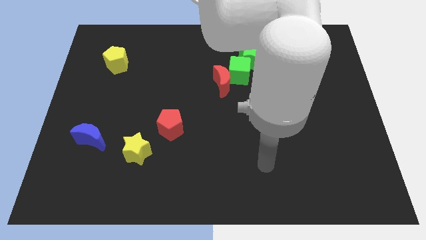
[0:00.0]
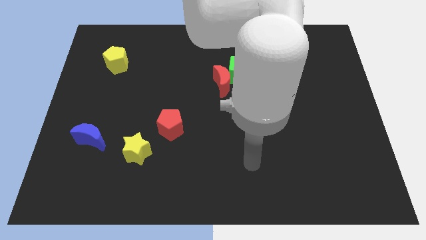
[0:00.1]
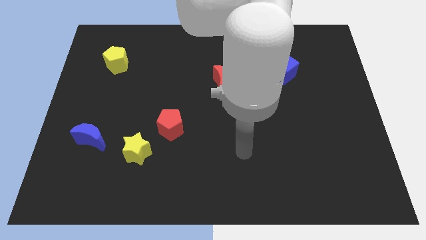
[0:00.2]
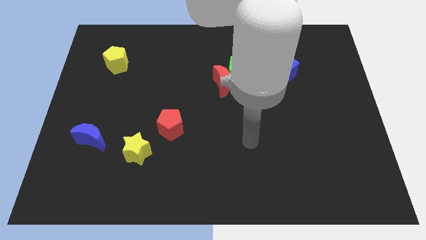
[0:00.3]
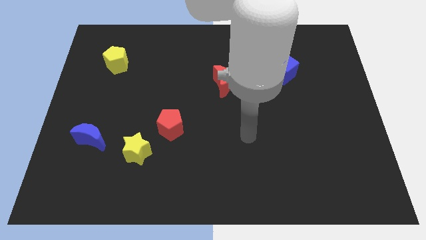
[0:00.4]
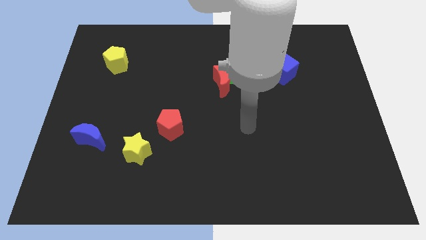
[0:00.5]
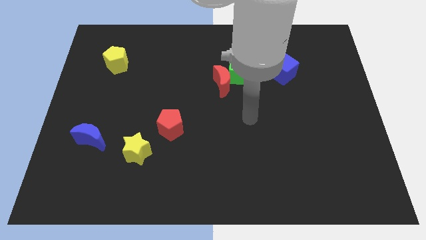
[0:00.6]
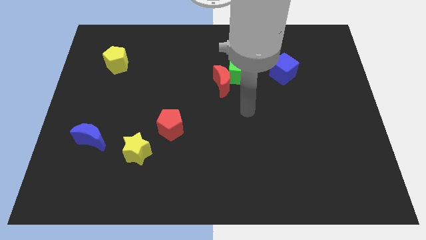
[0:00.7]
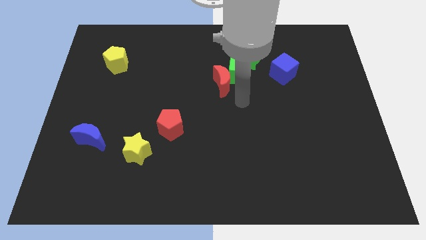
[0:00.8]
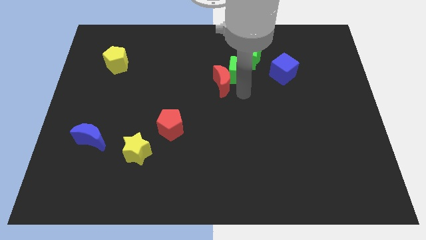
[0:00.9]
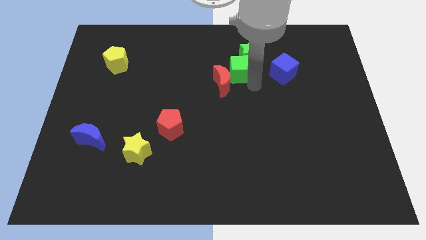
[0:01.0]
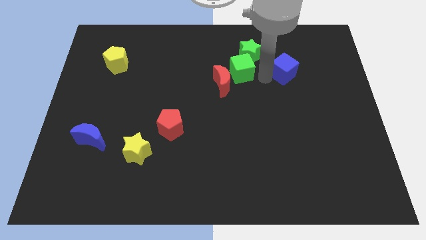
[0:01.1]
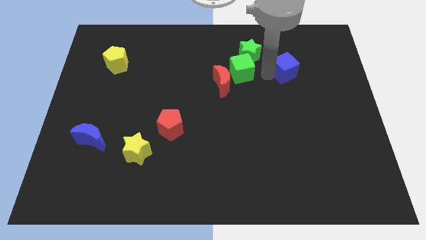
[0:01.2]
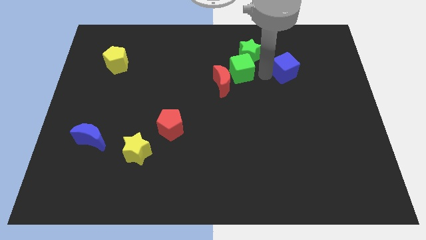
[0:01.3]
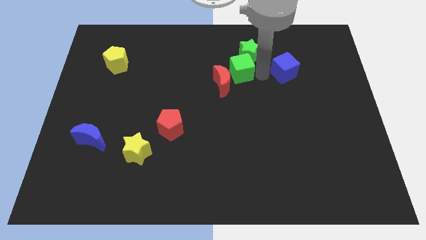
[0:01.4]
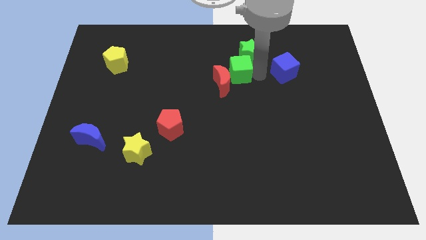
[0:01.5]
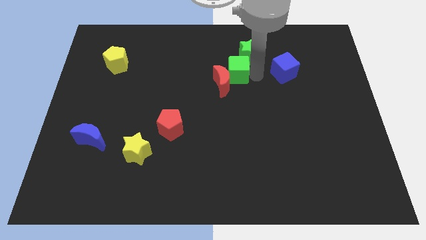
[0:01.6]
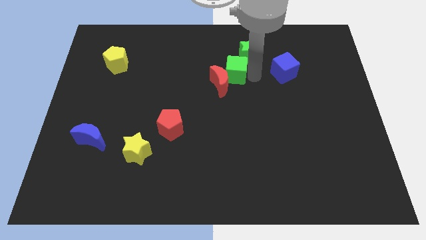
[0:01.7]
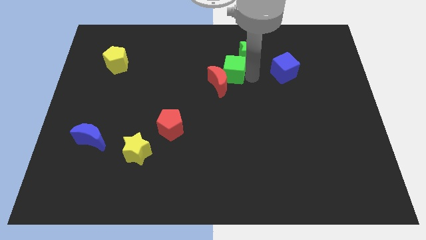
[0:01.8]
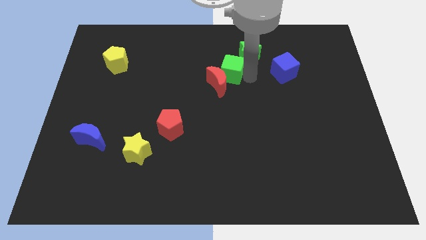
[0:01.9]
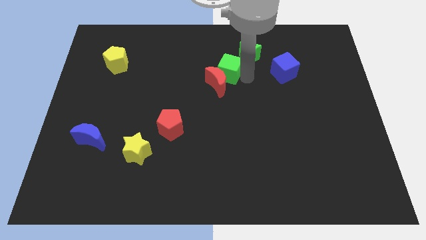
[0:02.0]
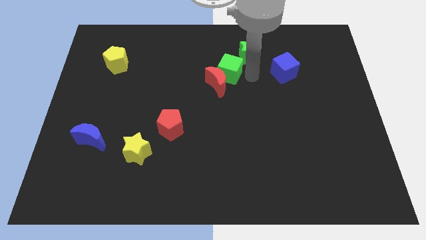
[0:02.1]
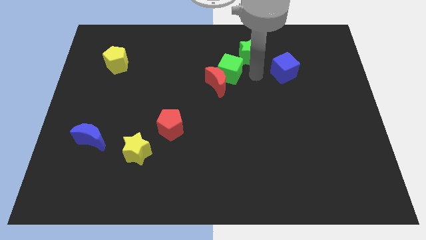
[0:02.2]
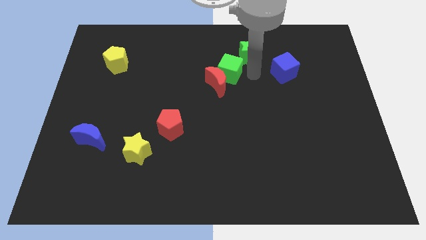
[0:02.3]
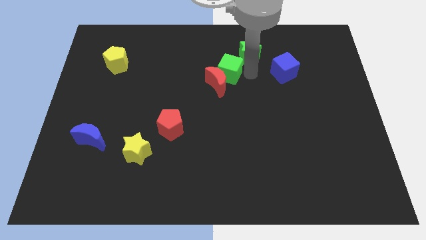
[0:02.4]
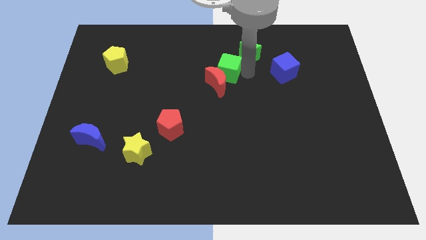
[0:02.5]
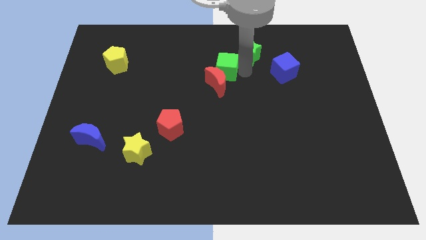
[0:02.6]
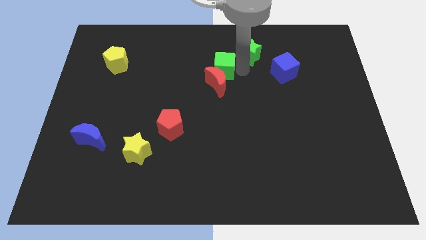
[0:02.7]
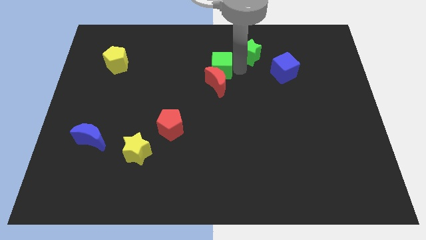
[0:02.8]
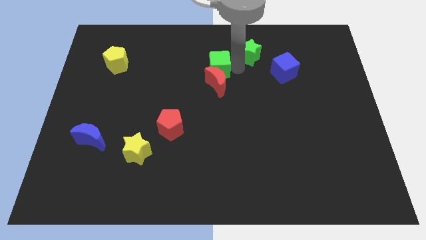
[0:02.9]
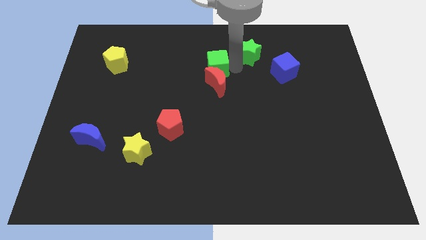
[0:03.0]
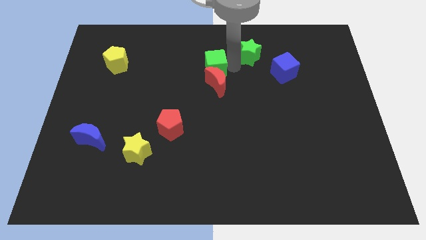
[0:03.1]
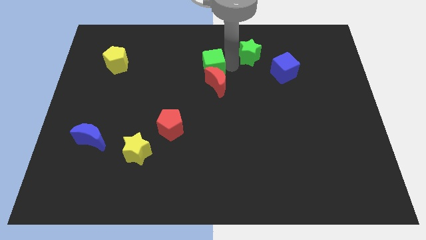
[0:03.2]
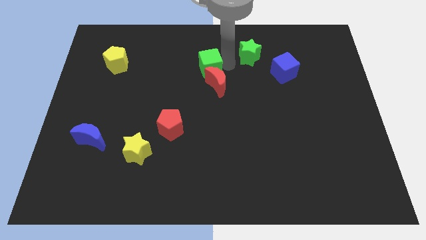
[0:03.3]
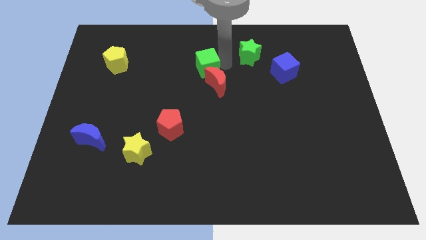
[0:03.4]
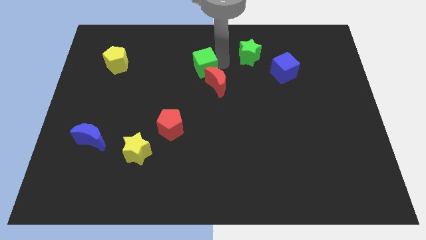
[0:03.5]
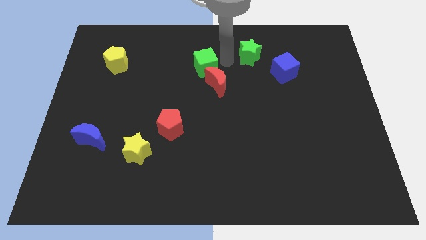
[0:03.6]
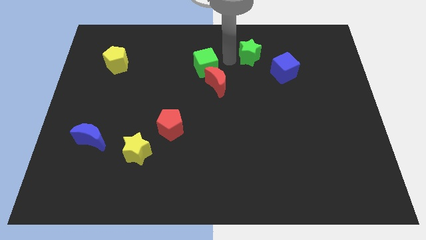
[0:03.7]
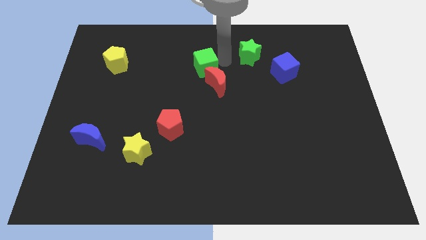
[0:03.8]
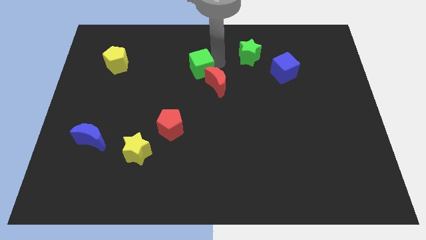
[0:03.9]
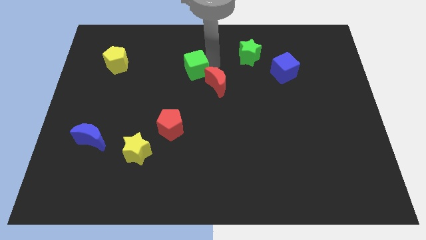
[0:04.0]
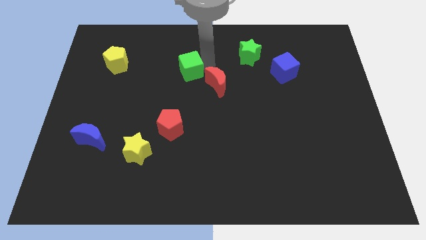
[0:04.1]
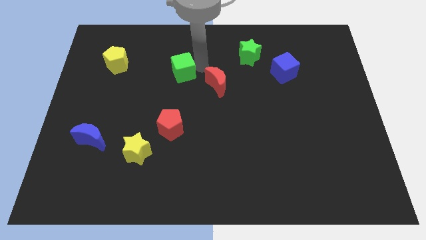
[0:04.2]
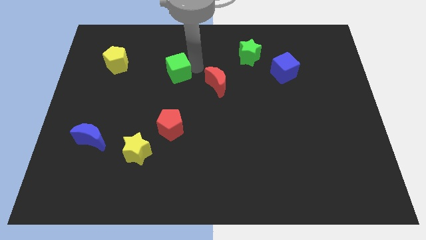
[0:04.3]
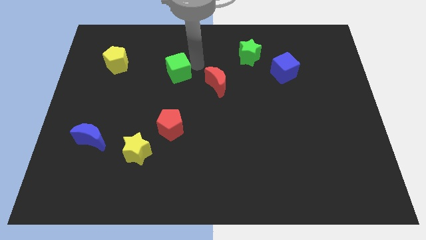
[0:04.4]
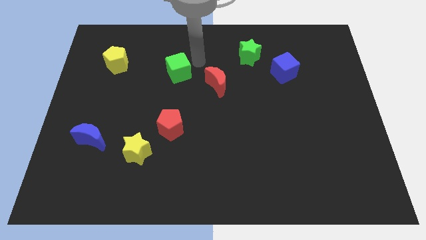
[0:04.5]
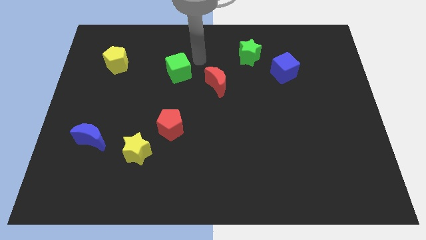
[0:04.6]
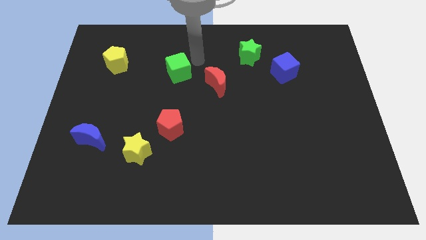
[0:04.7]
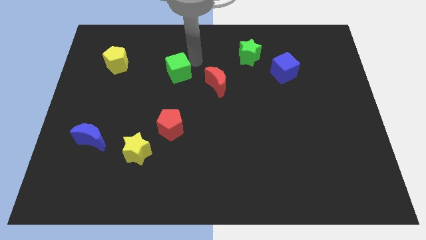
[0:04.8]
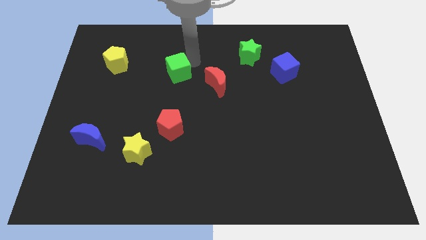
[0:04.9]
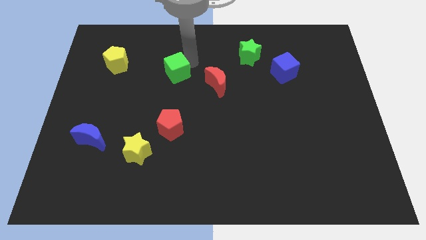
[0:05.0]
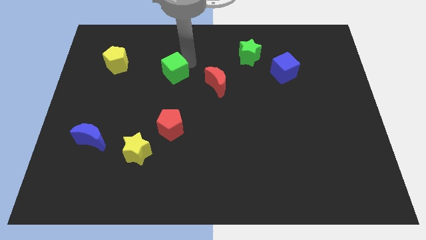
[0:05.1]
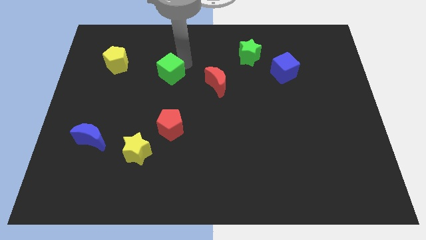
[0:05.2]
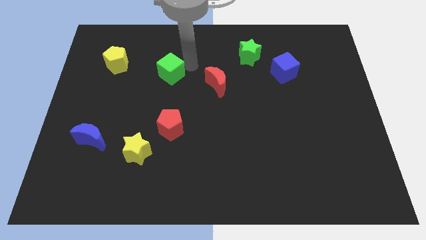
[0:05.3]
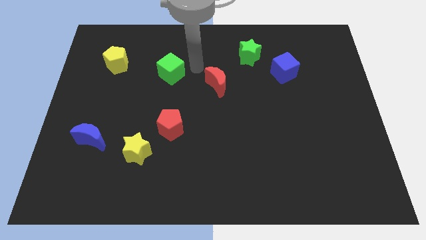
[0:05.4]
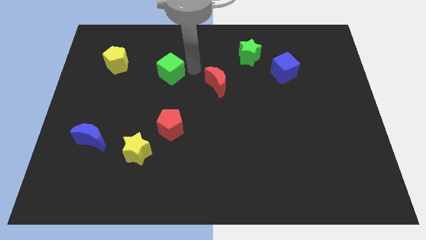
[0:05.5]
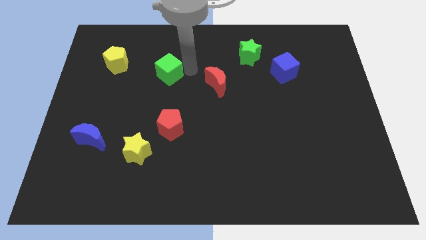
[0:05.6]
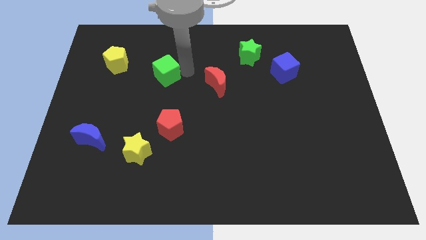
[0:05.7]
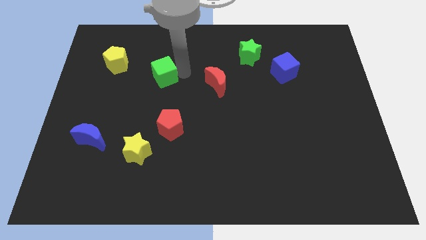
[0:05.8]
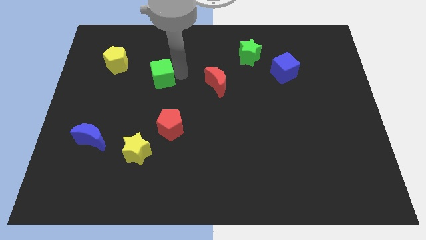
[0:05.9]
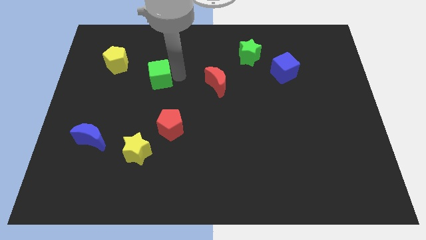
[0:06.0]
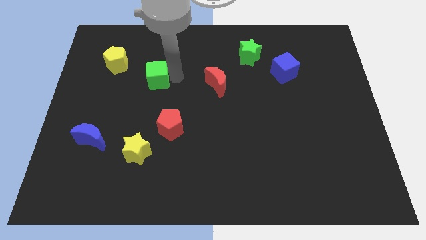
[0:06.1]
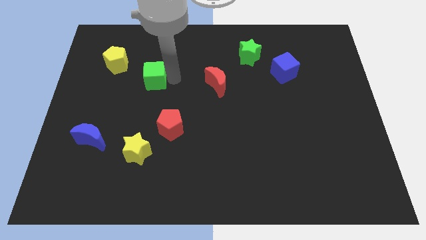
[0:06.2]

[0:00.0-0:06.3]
put the green cube diagonally down and to the right of the yellow pentagon
